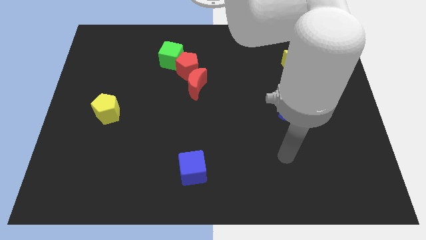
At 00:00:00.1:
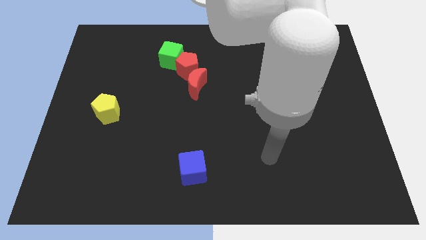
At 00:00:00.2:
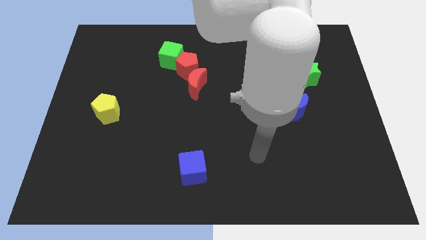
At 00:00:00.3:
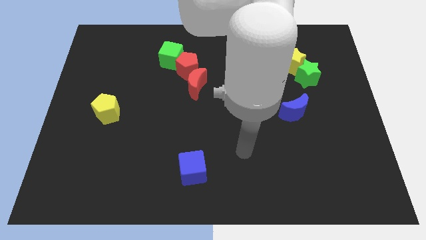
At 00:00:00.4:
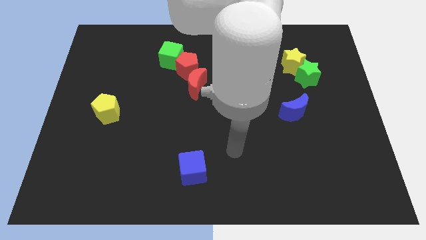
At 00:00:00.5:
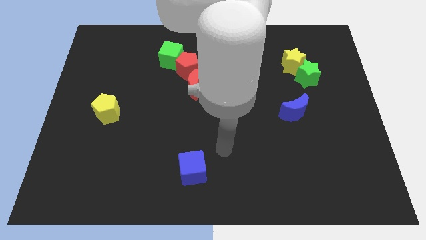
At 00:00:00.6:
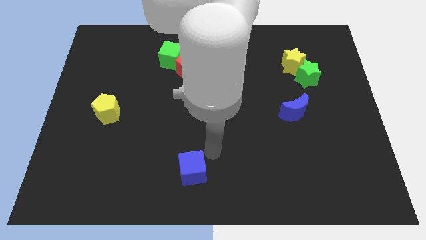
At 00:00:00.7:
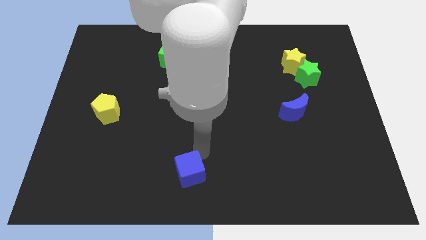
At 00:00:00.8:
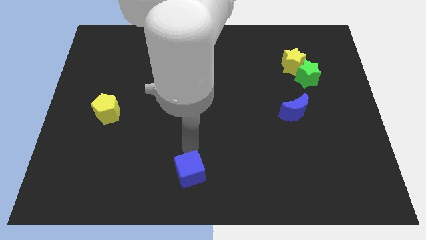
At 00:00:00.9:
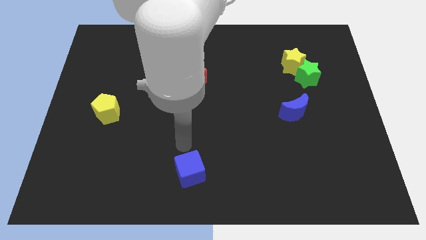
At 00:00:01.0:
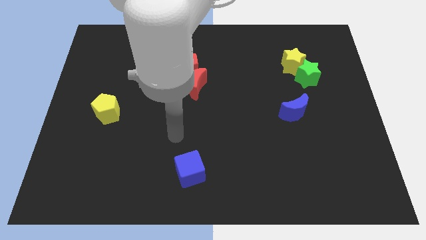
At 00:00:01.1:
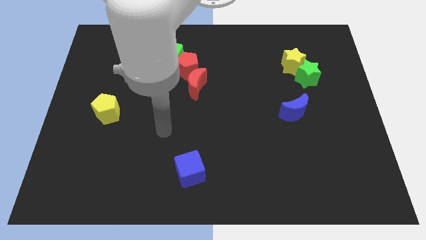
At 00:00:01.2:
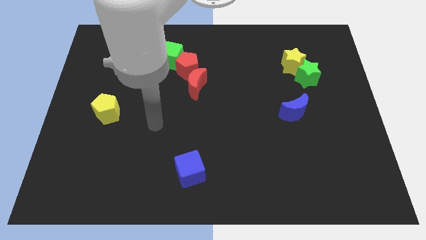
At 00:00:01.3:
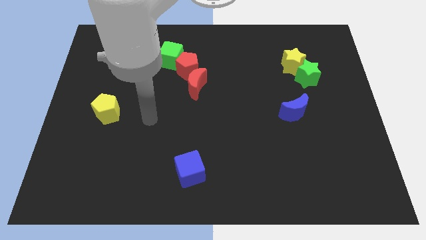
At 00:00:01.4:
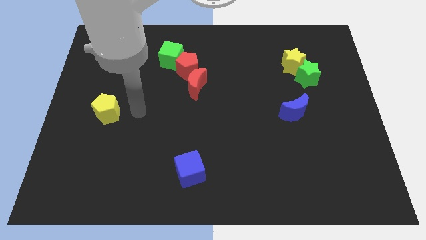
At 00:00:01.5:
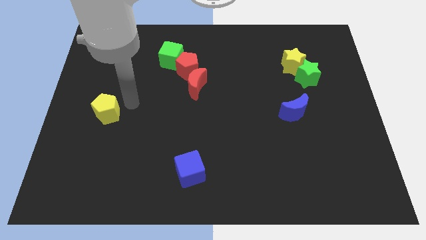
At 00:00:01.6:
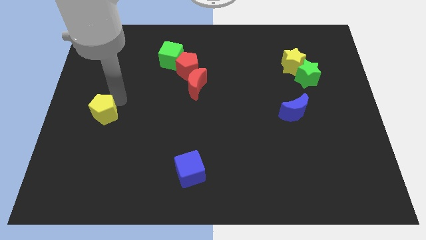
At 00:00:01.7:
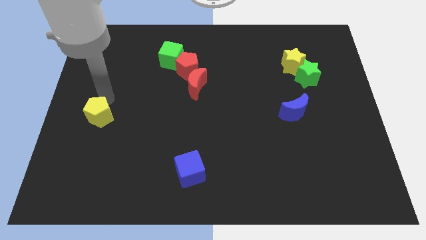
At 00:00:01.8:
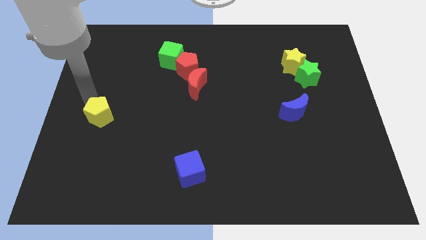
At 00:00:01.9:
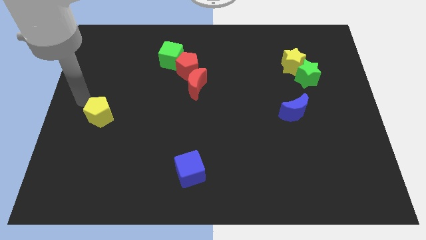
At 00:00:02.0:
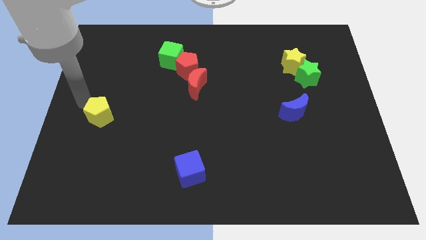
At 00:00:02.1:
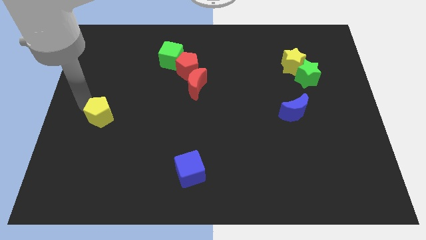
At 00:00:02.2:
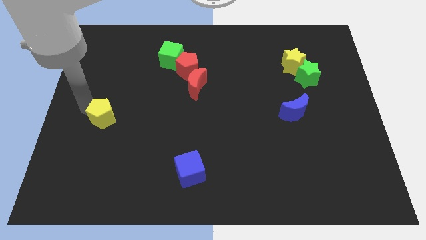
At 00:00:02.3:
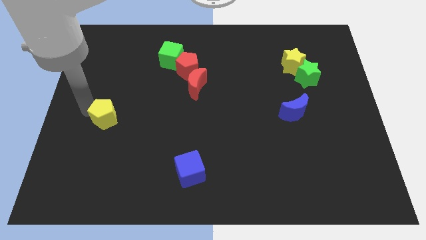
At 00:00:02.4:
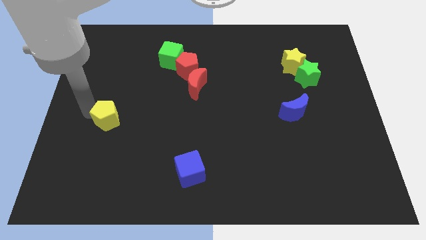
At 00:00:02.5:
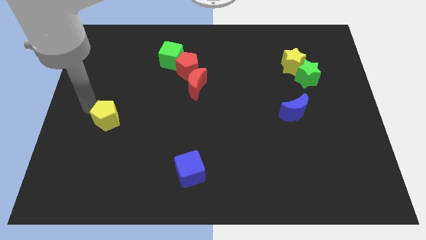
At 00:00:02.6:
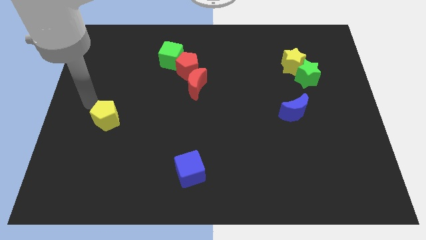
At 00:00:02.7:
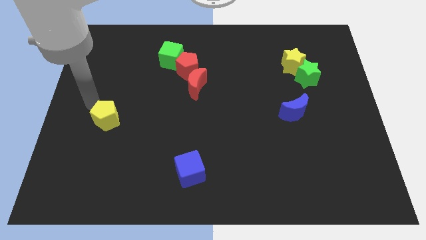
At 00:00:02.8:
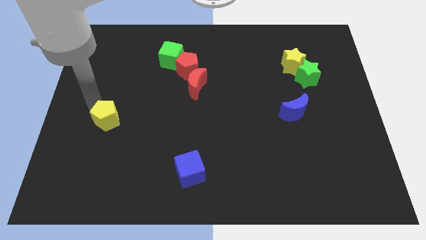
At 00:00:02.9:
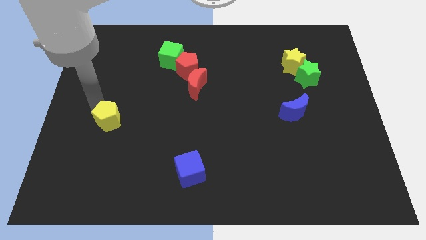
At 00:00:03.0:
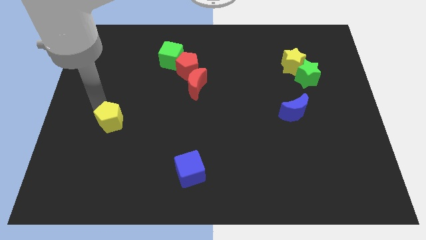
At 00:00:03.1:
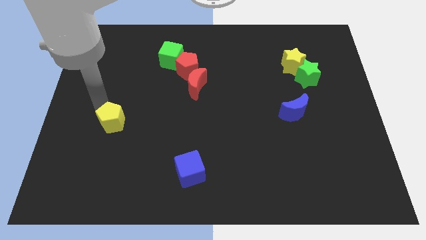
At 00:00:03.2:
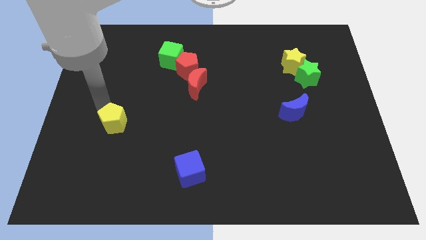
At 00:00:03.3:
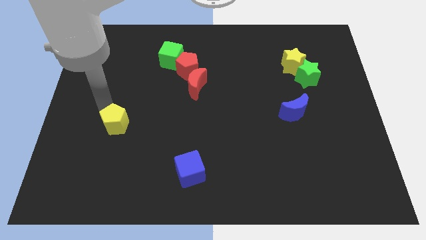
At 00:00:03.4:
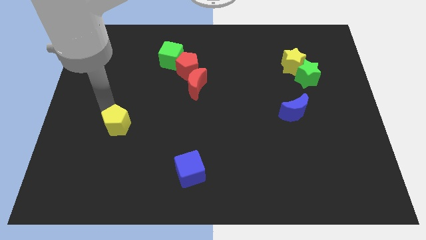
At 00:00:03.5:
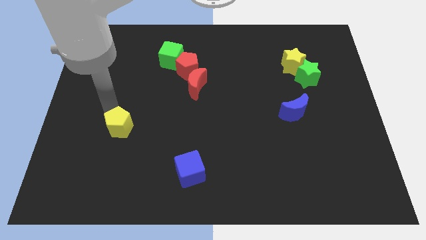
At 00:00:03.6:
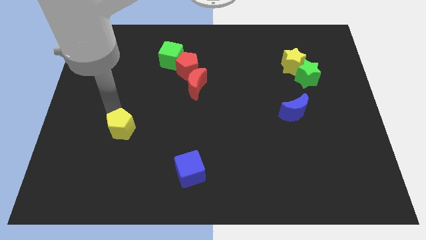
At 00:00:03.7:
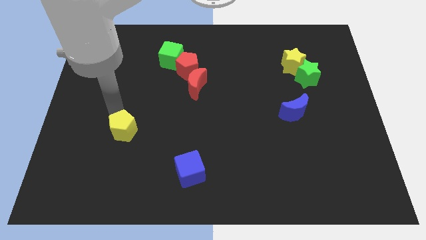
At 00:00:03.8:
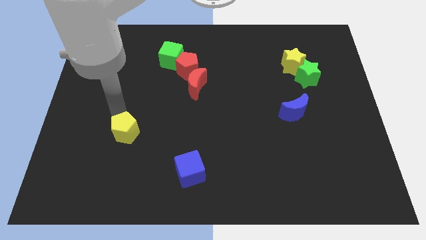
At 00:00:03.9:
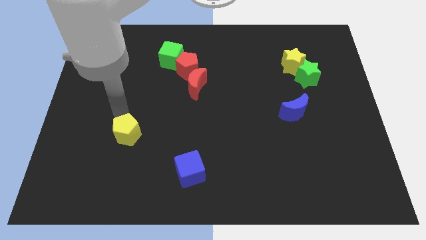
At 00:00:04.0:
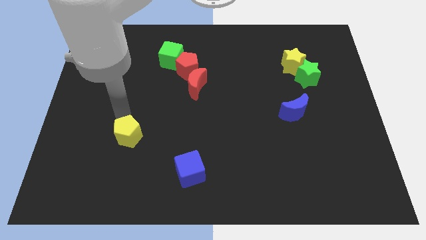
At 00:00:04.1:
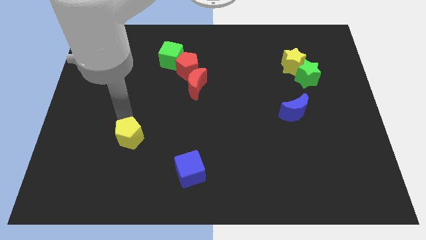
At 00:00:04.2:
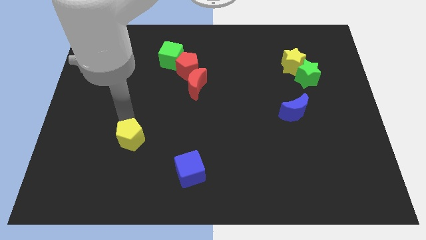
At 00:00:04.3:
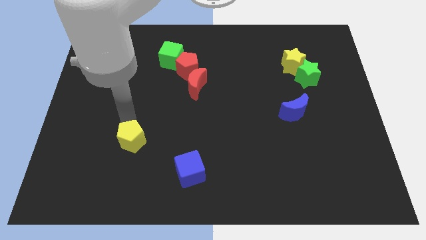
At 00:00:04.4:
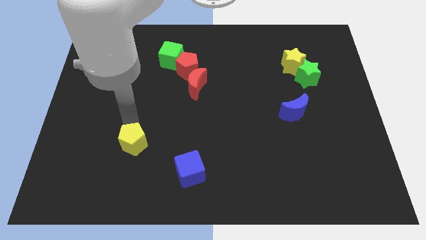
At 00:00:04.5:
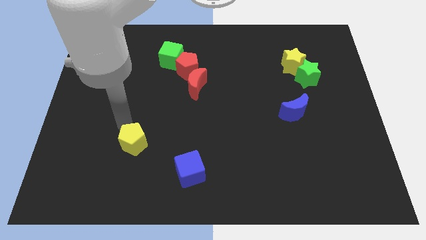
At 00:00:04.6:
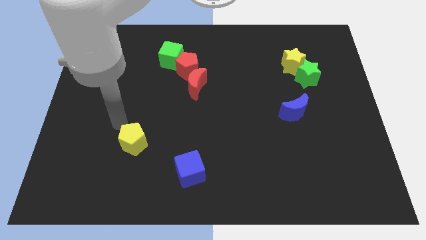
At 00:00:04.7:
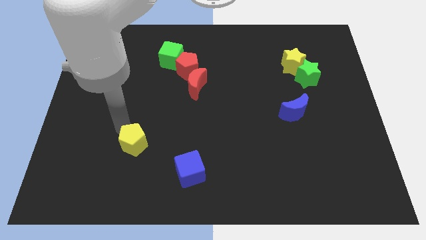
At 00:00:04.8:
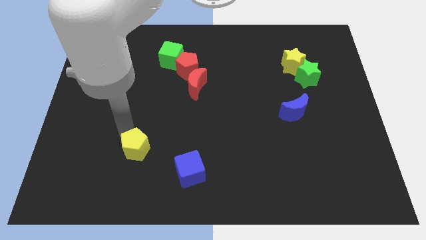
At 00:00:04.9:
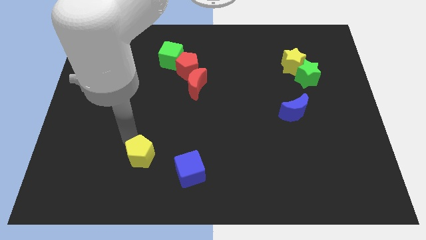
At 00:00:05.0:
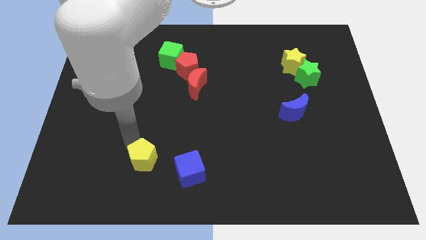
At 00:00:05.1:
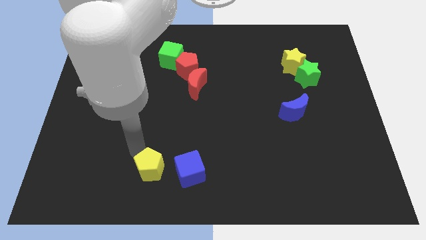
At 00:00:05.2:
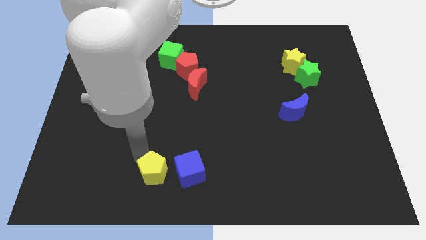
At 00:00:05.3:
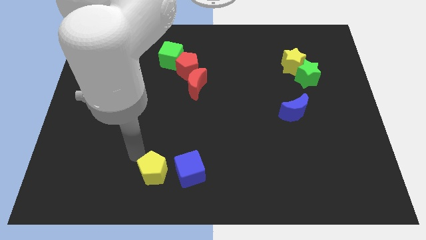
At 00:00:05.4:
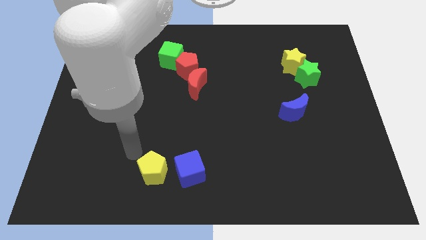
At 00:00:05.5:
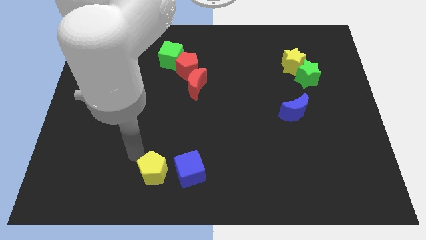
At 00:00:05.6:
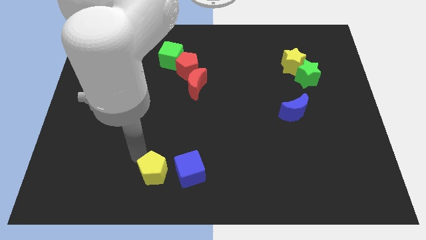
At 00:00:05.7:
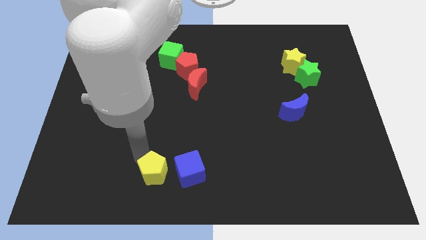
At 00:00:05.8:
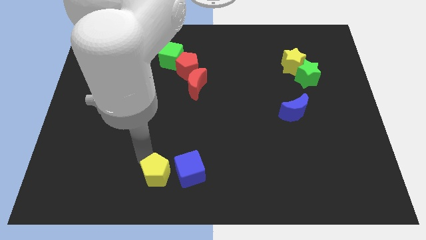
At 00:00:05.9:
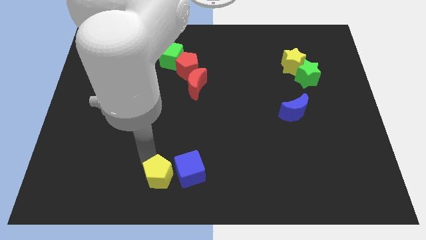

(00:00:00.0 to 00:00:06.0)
move the yellow pentagon to the bottom
